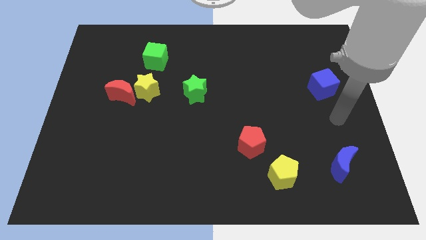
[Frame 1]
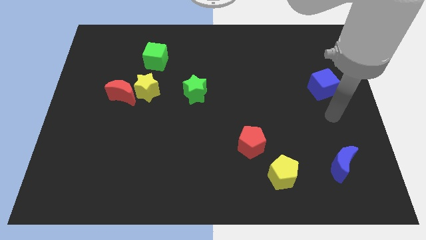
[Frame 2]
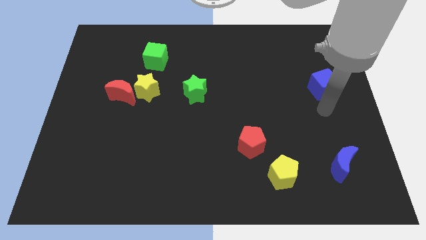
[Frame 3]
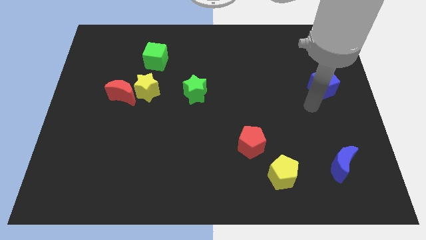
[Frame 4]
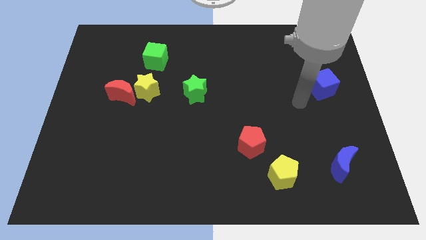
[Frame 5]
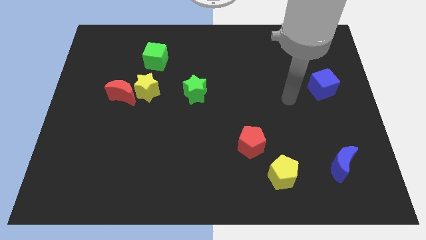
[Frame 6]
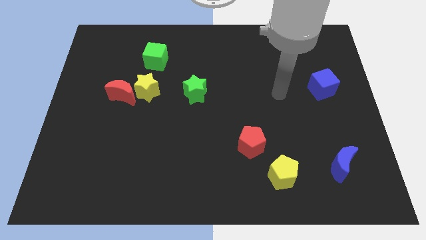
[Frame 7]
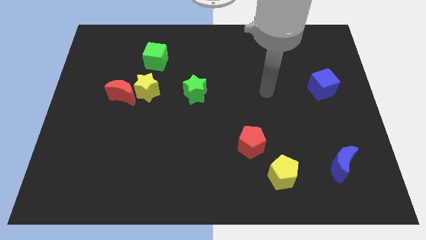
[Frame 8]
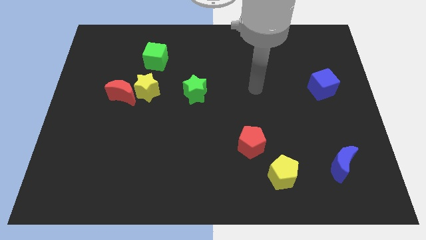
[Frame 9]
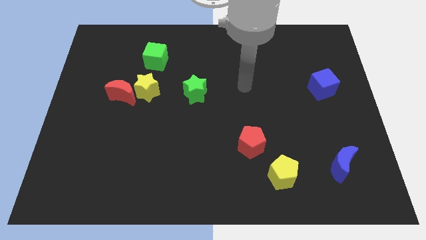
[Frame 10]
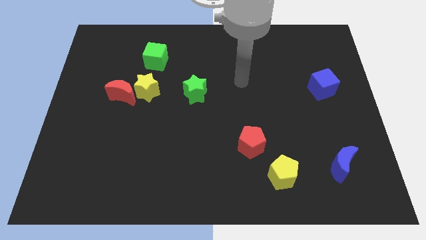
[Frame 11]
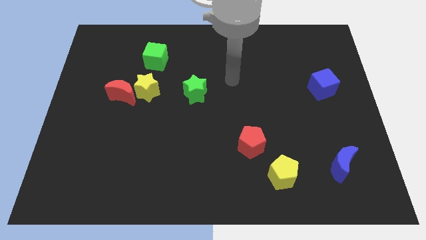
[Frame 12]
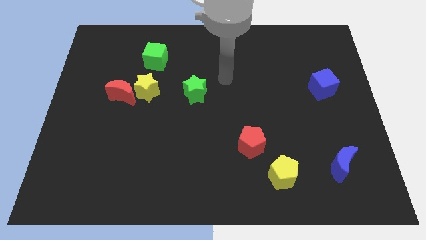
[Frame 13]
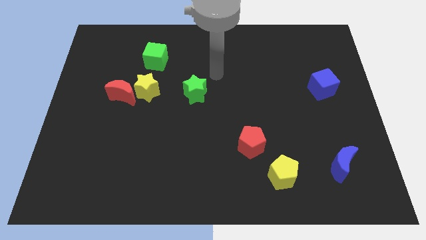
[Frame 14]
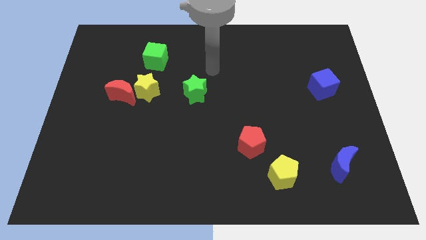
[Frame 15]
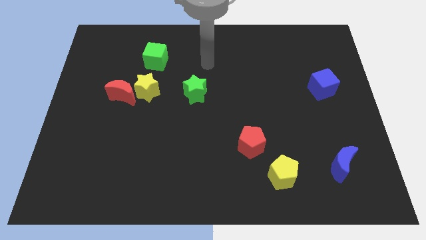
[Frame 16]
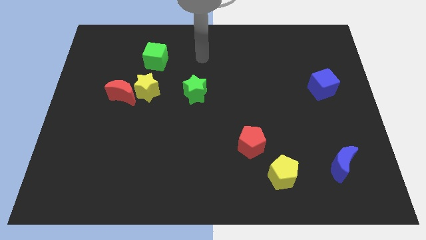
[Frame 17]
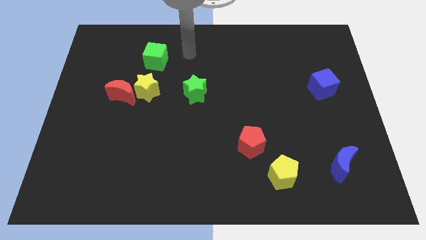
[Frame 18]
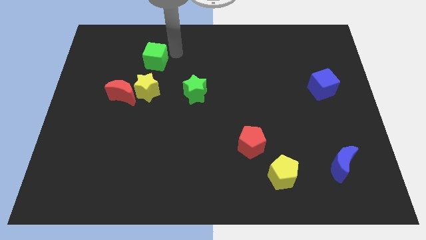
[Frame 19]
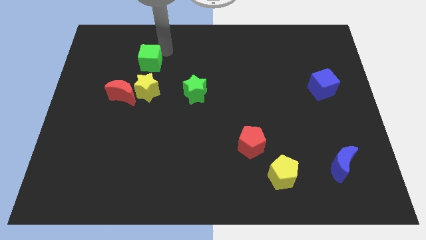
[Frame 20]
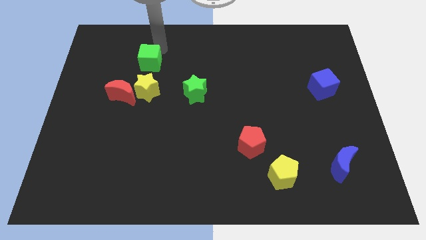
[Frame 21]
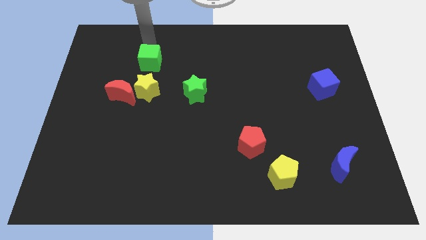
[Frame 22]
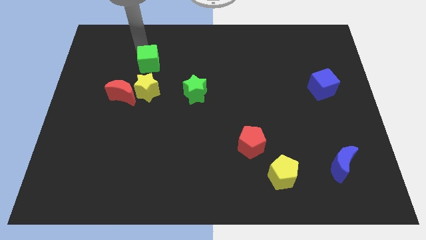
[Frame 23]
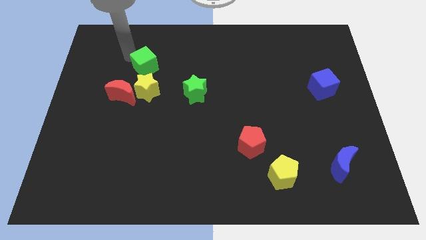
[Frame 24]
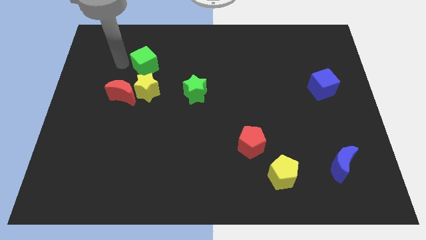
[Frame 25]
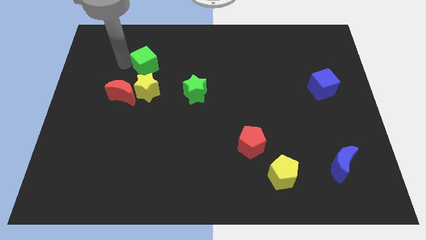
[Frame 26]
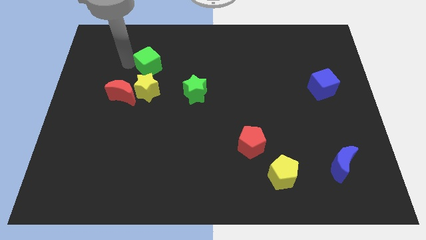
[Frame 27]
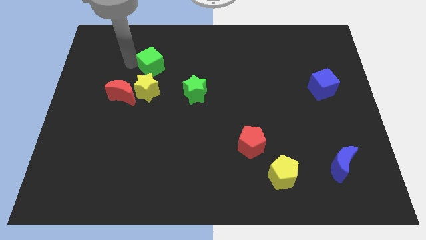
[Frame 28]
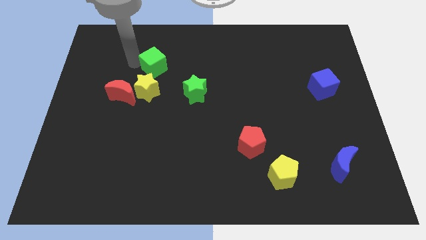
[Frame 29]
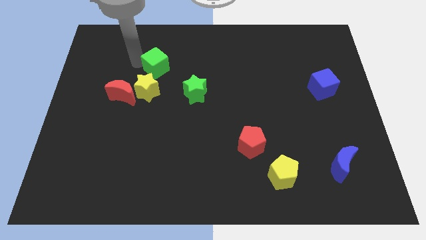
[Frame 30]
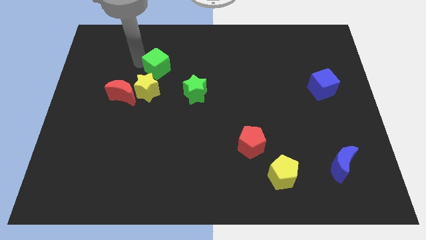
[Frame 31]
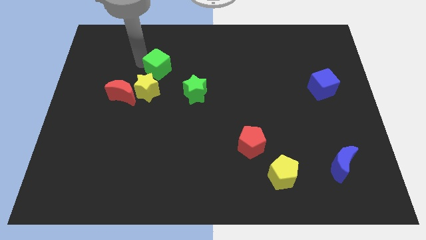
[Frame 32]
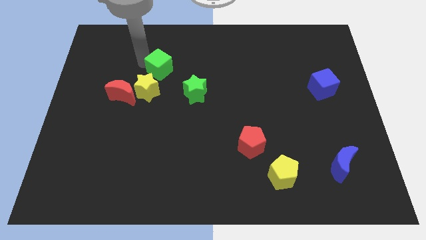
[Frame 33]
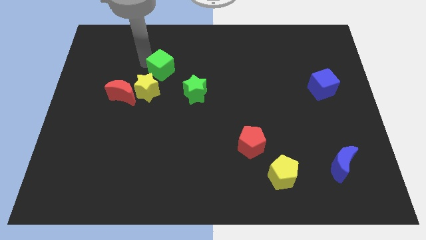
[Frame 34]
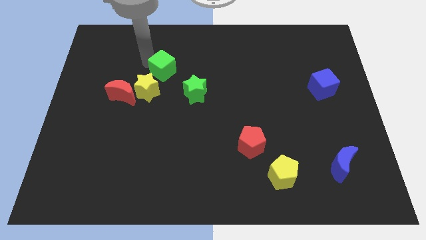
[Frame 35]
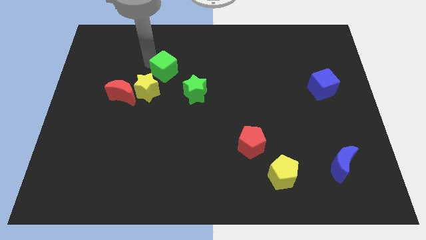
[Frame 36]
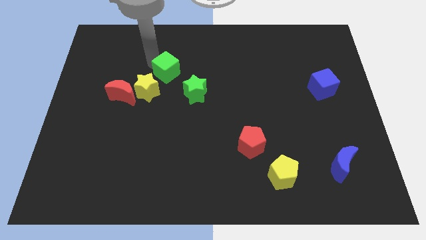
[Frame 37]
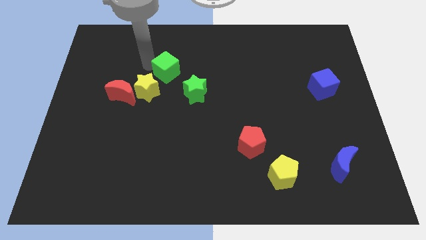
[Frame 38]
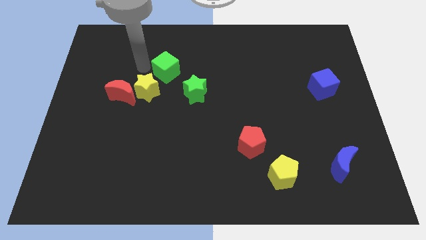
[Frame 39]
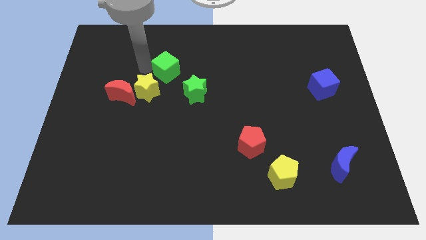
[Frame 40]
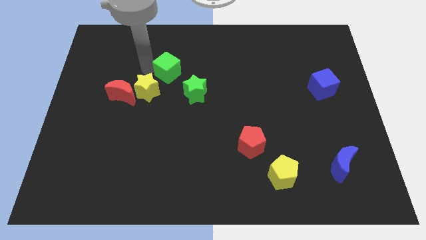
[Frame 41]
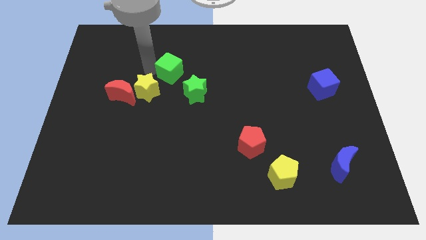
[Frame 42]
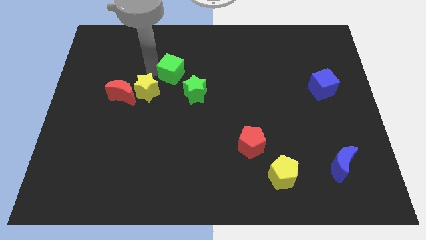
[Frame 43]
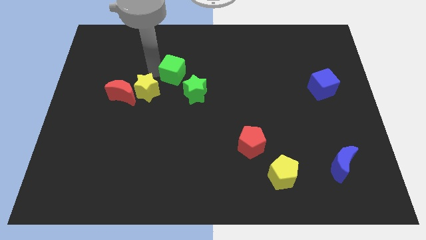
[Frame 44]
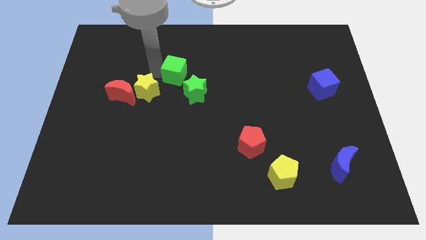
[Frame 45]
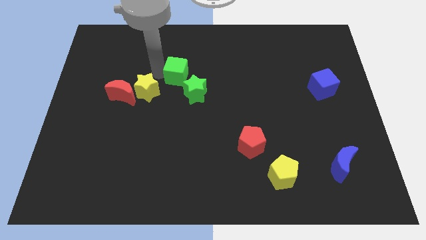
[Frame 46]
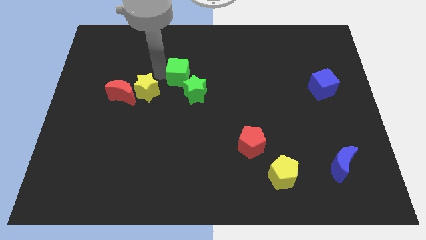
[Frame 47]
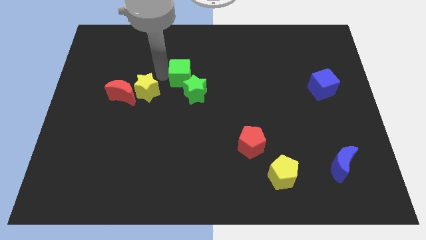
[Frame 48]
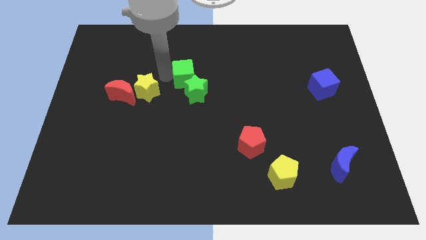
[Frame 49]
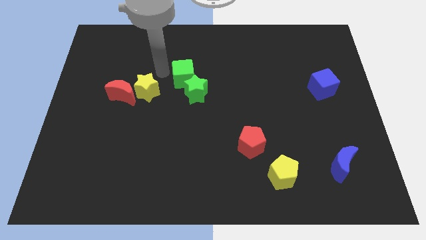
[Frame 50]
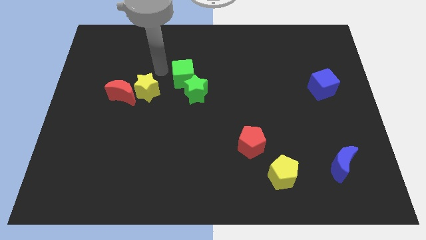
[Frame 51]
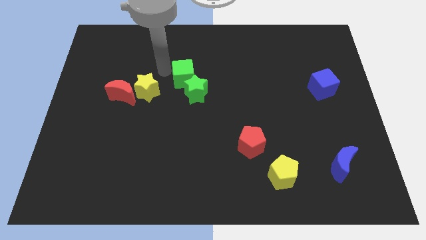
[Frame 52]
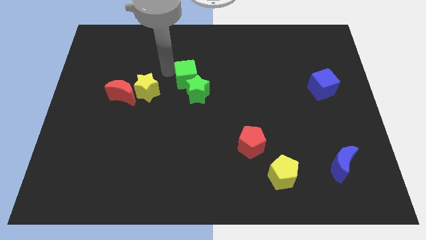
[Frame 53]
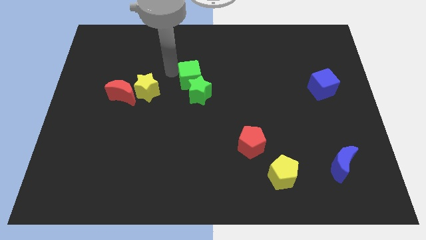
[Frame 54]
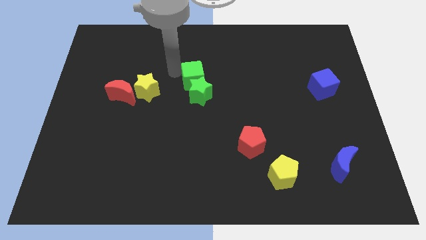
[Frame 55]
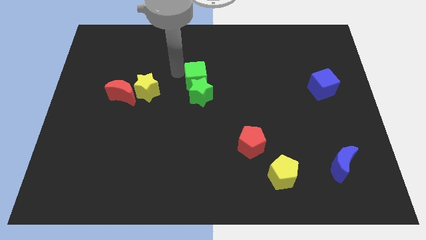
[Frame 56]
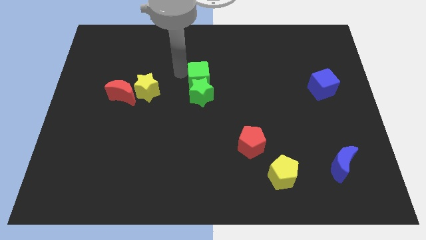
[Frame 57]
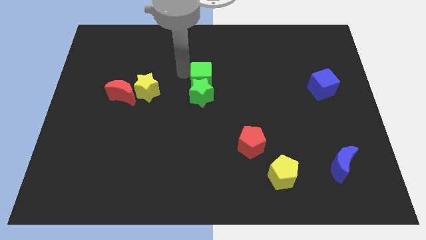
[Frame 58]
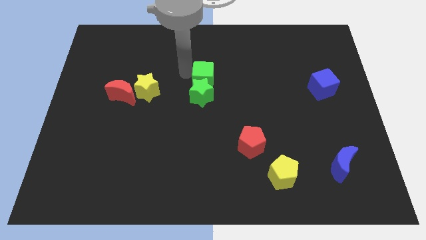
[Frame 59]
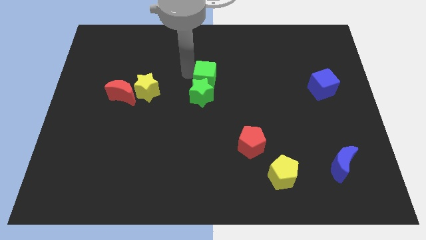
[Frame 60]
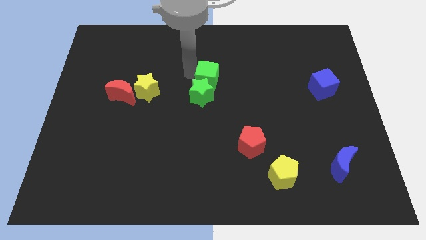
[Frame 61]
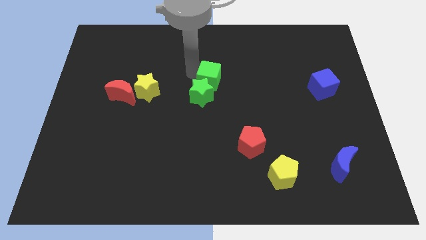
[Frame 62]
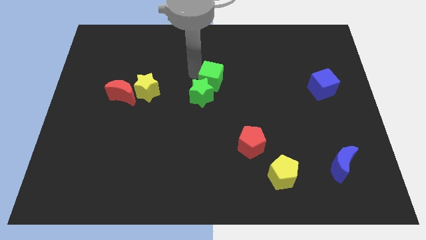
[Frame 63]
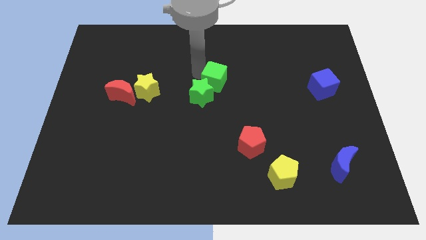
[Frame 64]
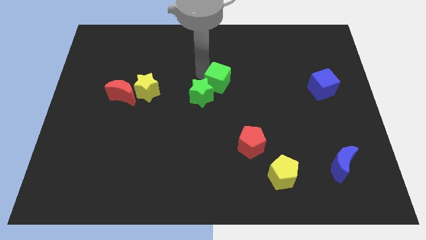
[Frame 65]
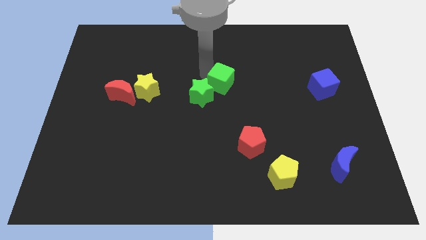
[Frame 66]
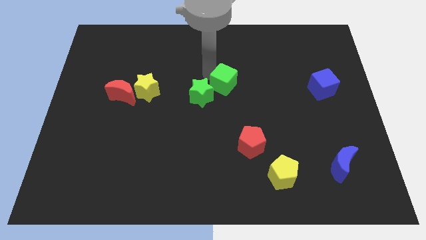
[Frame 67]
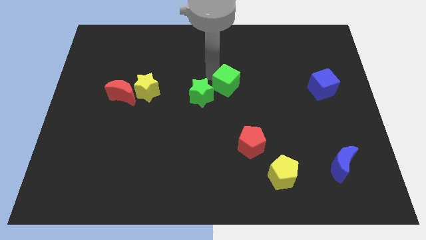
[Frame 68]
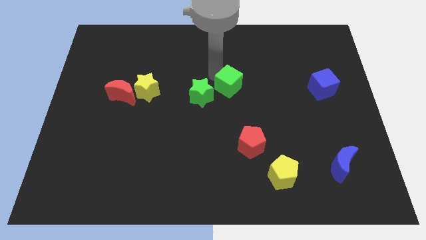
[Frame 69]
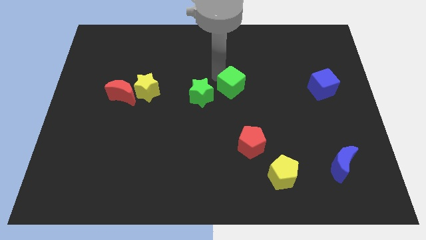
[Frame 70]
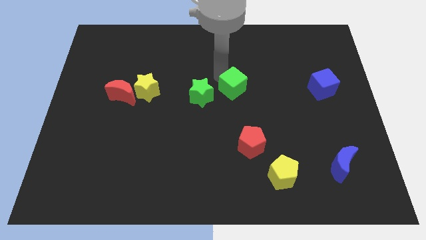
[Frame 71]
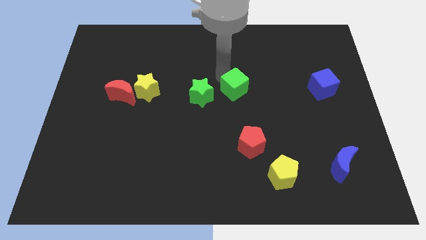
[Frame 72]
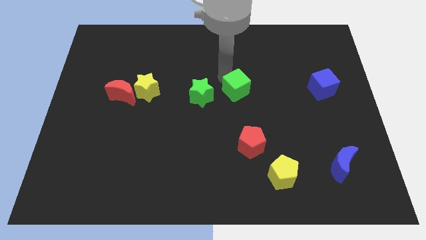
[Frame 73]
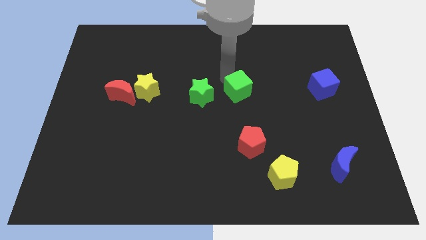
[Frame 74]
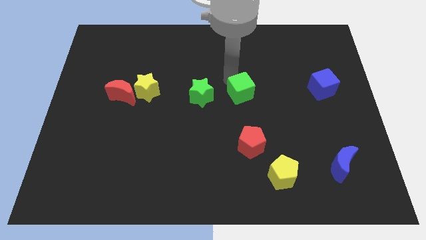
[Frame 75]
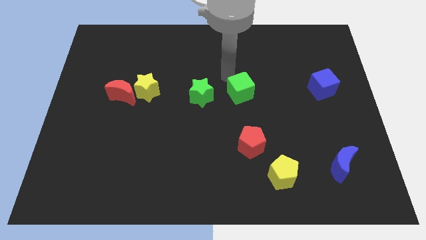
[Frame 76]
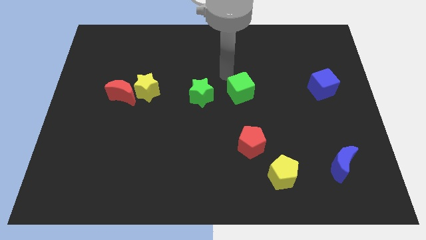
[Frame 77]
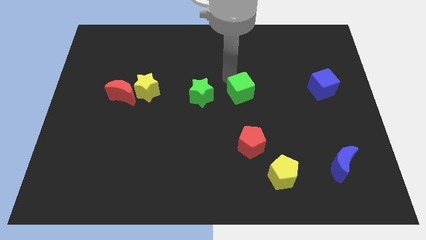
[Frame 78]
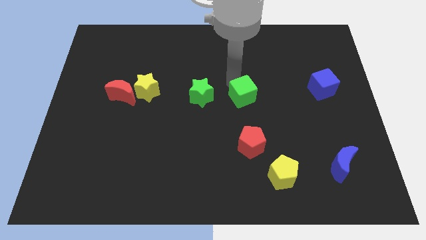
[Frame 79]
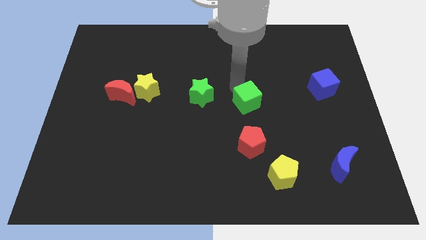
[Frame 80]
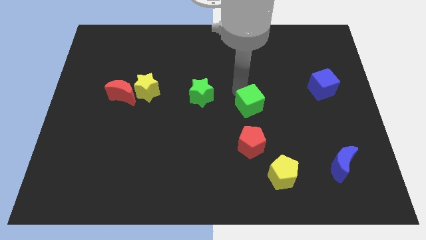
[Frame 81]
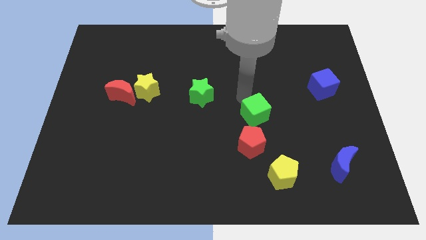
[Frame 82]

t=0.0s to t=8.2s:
put the green cube diagonally up and to the right of the red pentagon
